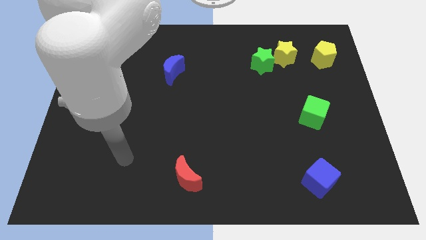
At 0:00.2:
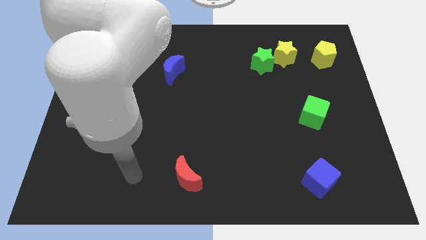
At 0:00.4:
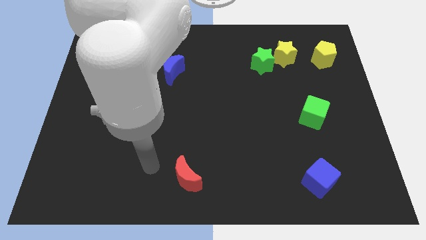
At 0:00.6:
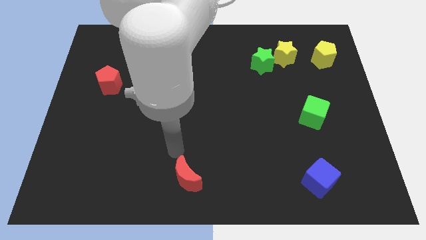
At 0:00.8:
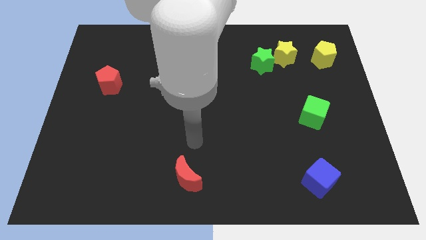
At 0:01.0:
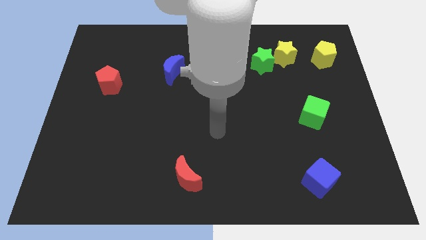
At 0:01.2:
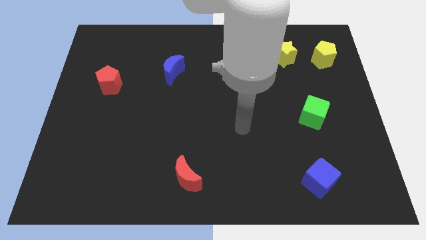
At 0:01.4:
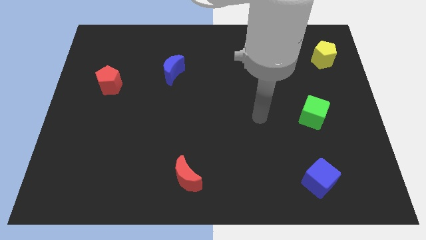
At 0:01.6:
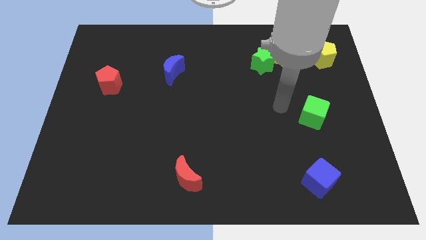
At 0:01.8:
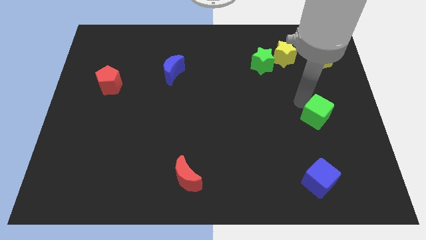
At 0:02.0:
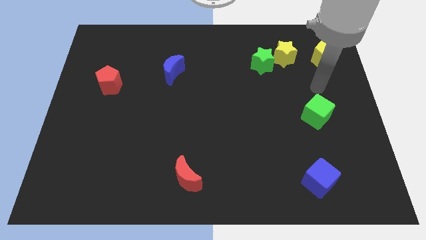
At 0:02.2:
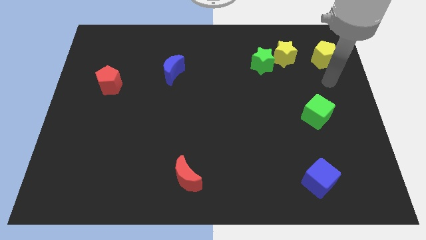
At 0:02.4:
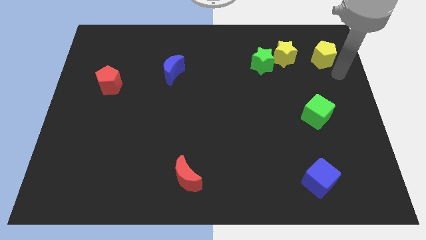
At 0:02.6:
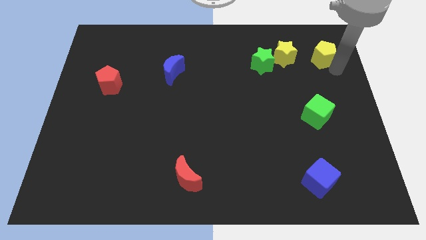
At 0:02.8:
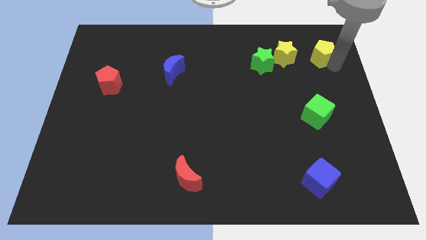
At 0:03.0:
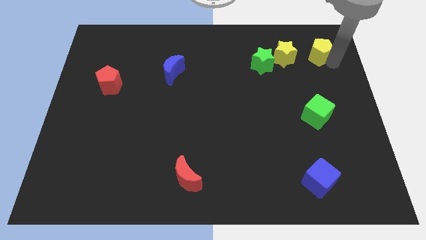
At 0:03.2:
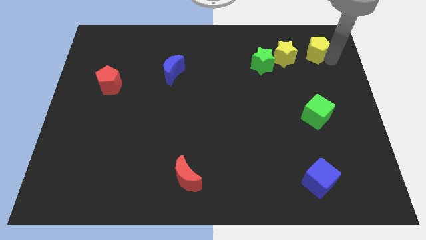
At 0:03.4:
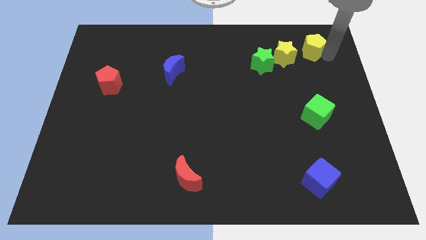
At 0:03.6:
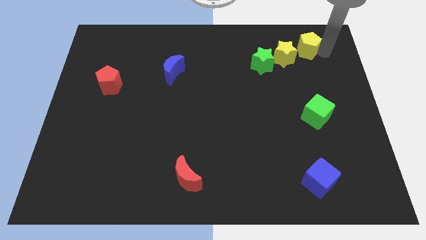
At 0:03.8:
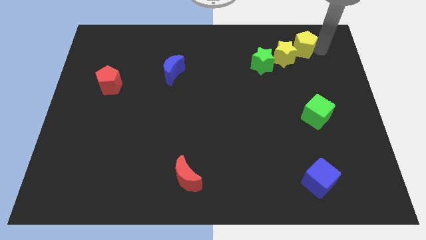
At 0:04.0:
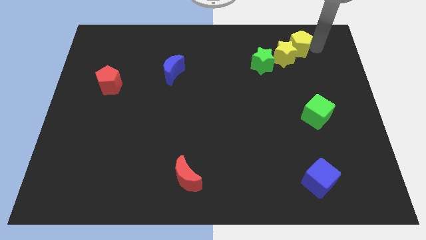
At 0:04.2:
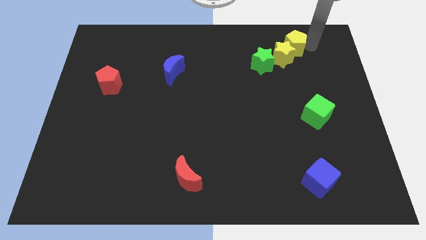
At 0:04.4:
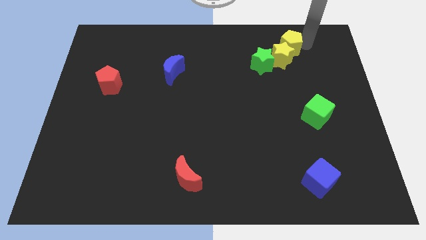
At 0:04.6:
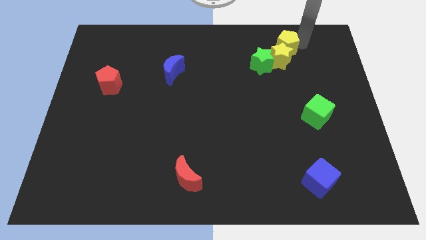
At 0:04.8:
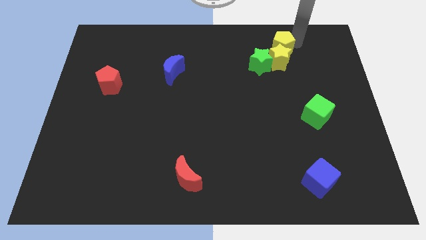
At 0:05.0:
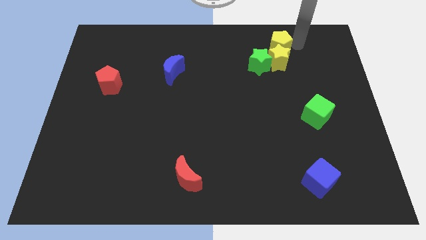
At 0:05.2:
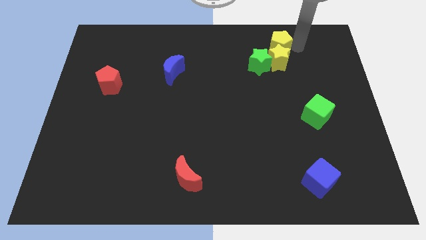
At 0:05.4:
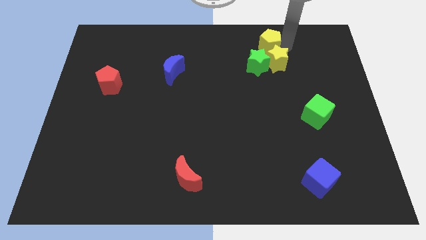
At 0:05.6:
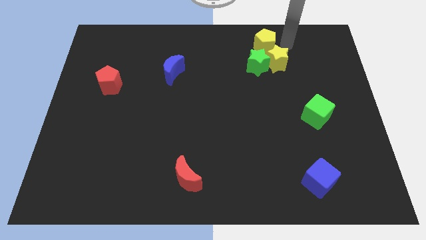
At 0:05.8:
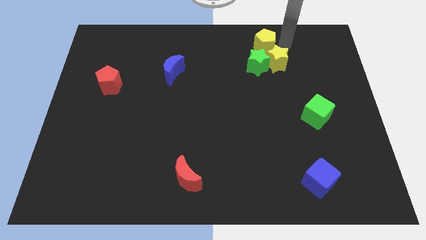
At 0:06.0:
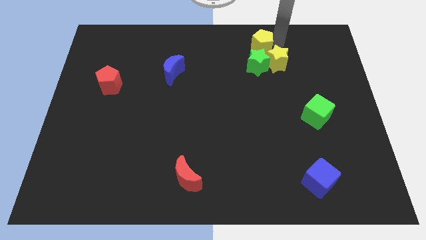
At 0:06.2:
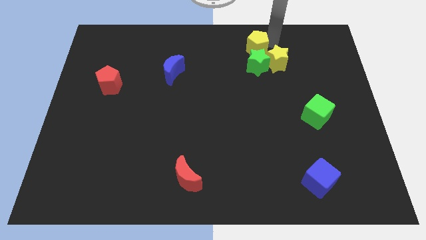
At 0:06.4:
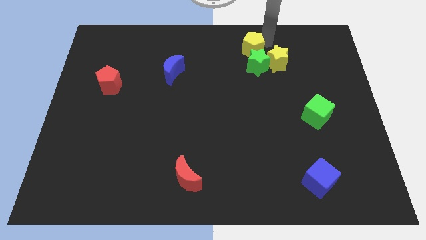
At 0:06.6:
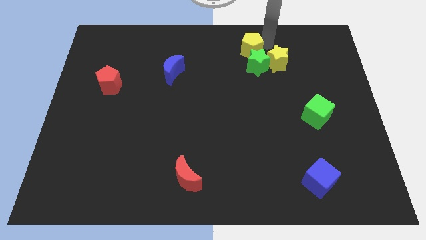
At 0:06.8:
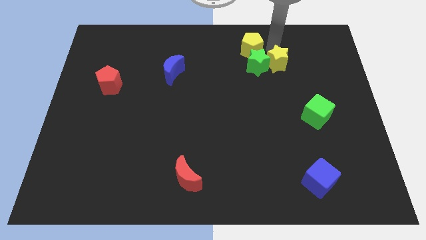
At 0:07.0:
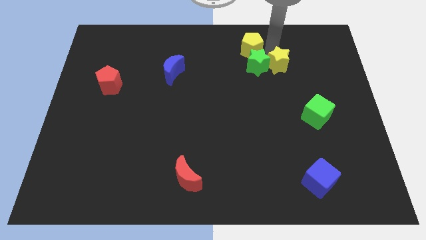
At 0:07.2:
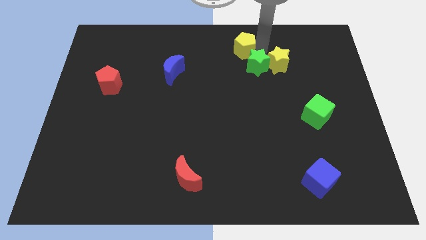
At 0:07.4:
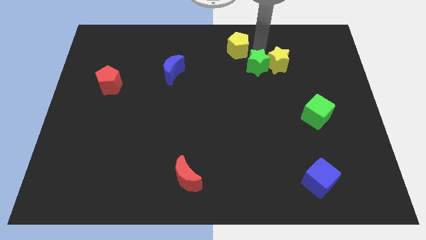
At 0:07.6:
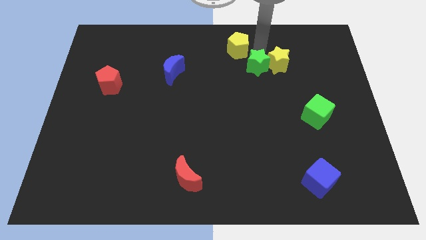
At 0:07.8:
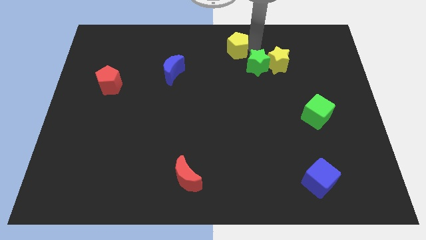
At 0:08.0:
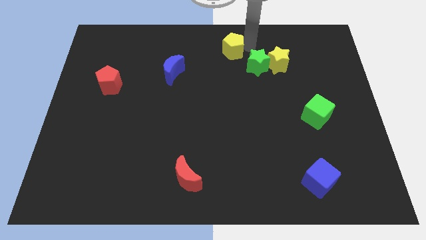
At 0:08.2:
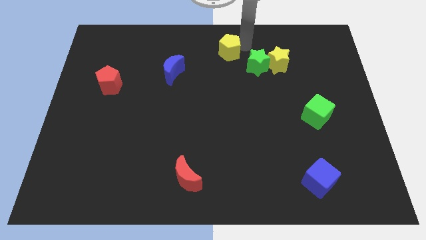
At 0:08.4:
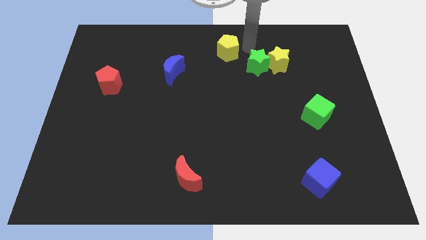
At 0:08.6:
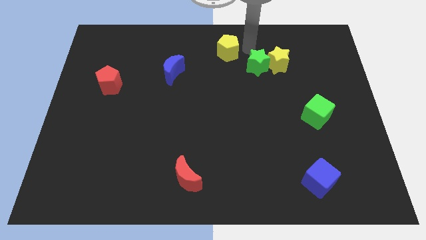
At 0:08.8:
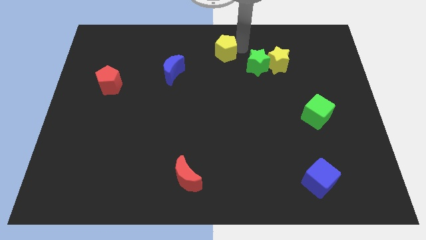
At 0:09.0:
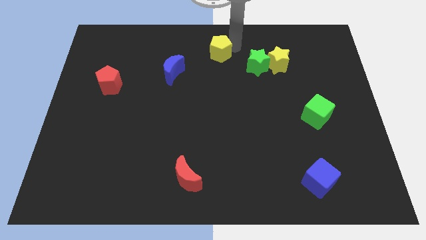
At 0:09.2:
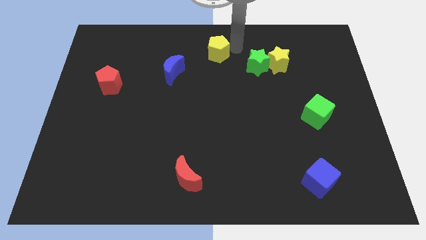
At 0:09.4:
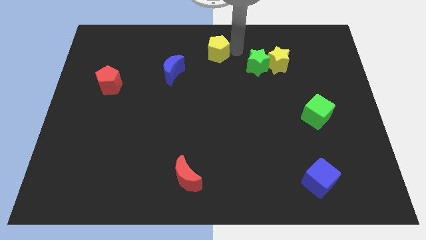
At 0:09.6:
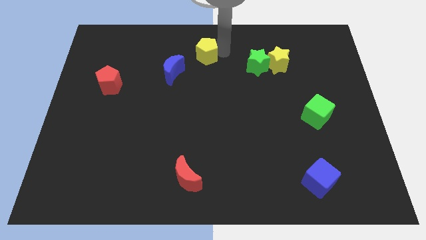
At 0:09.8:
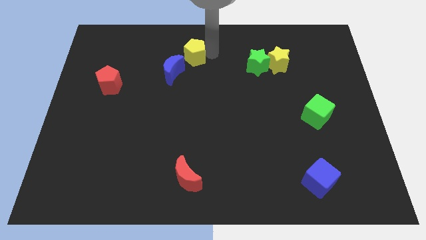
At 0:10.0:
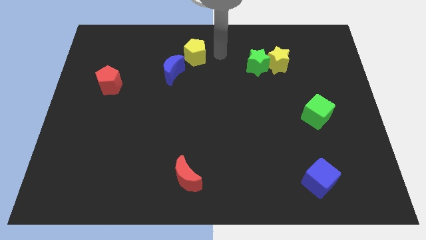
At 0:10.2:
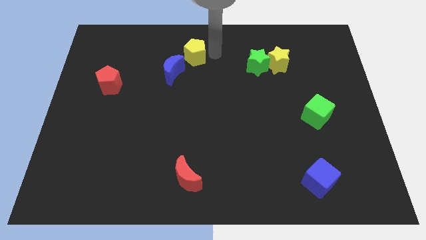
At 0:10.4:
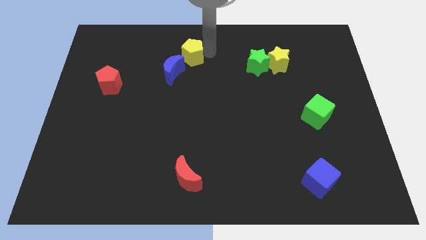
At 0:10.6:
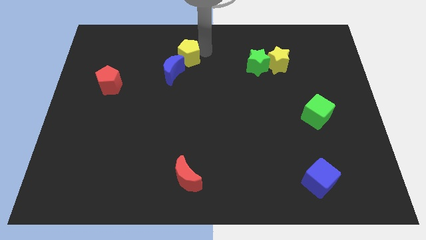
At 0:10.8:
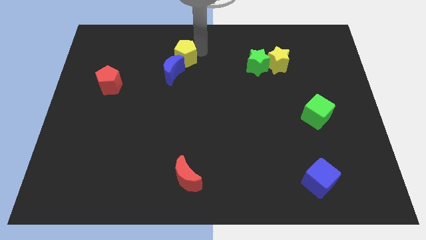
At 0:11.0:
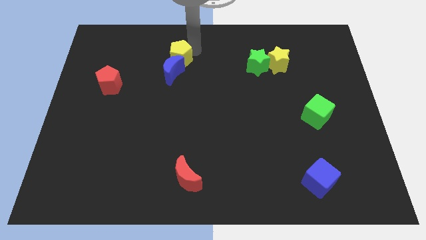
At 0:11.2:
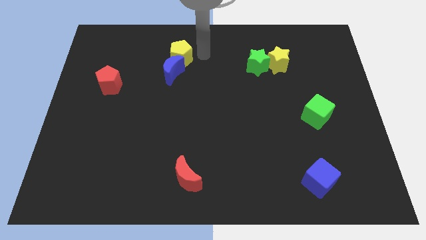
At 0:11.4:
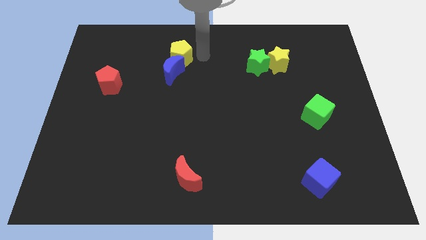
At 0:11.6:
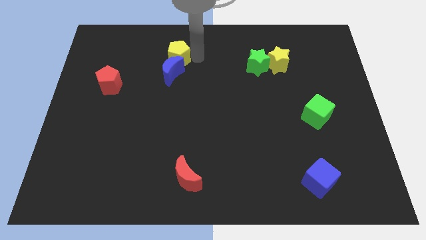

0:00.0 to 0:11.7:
move the yellow pentagon to the top left side of the blue moon
